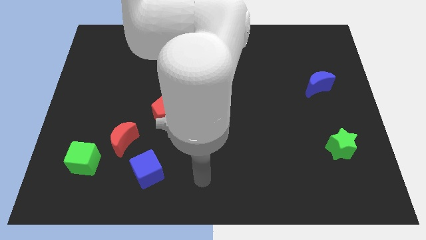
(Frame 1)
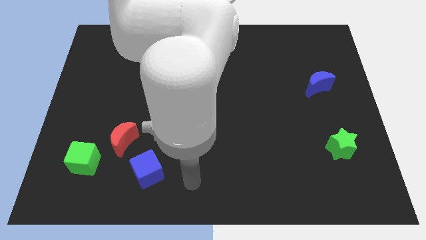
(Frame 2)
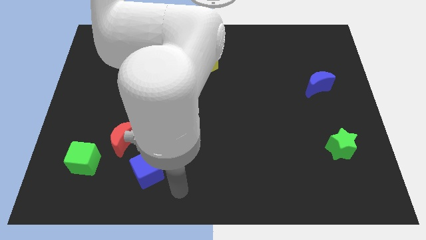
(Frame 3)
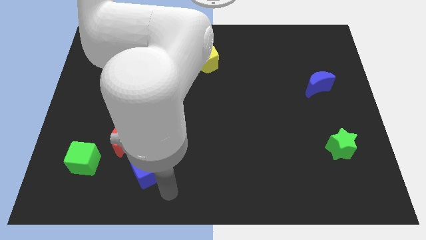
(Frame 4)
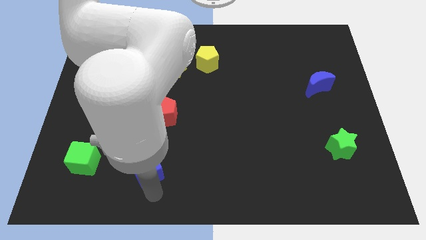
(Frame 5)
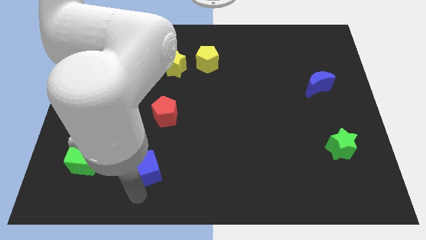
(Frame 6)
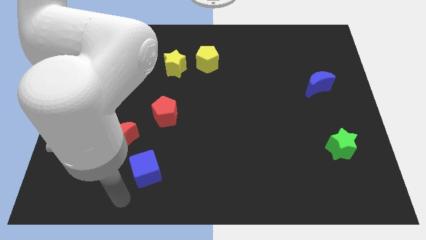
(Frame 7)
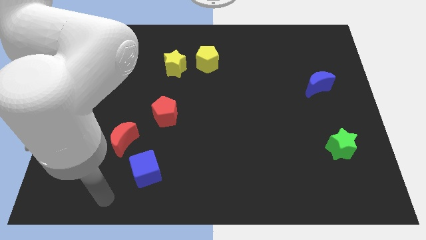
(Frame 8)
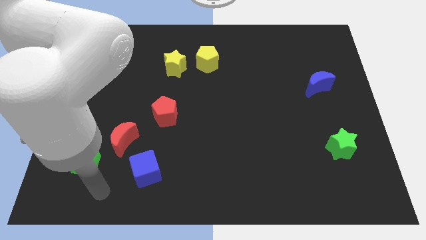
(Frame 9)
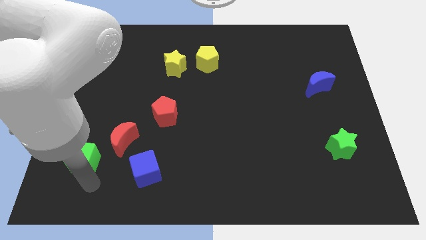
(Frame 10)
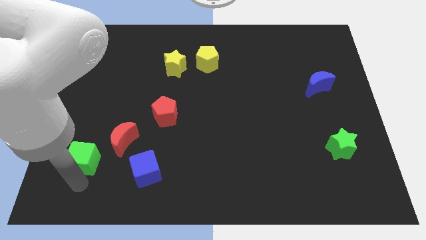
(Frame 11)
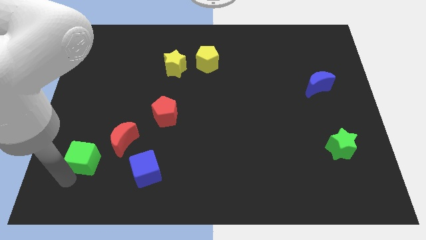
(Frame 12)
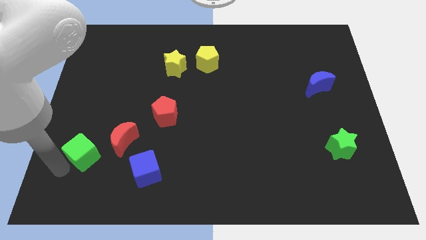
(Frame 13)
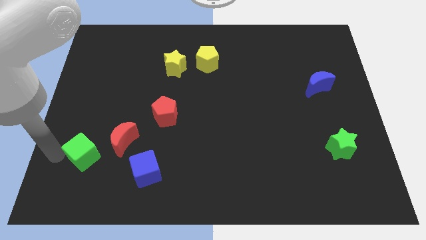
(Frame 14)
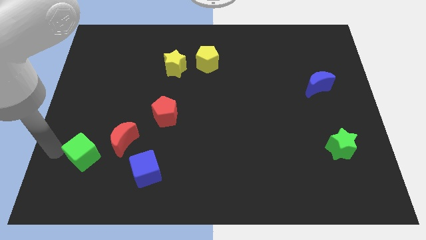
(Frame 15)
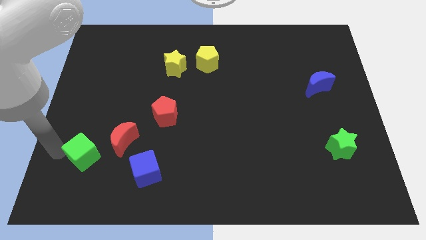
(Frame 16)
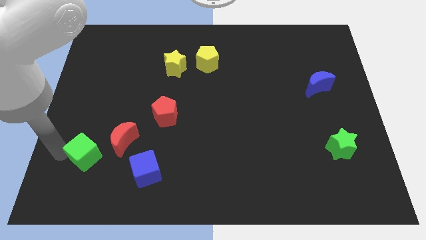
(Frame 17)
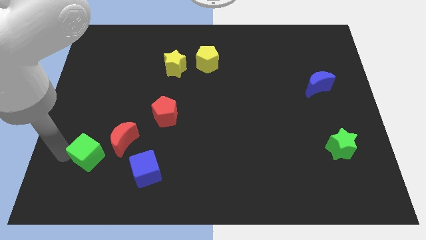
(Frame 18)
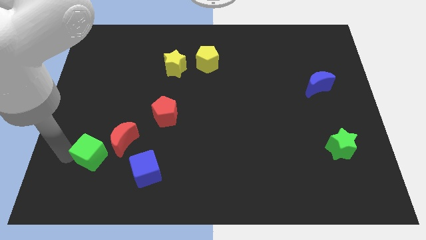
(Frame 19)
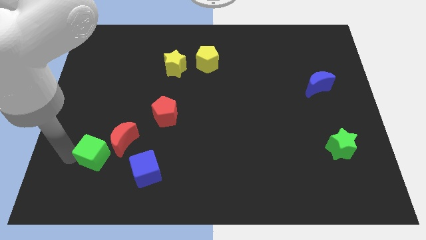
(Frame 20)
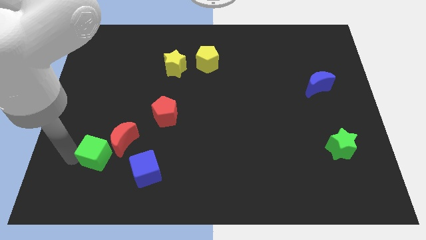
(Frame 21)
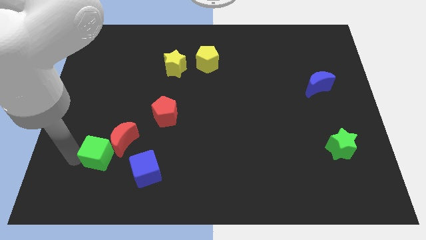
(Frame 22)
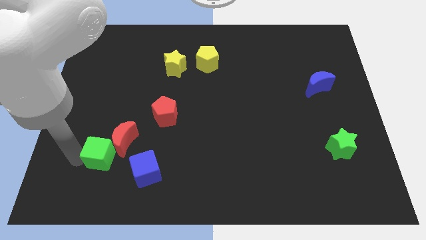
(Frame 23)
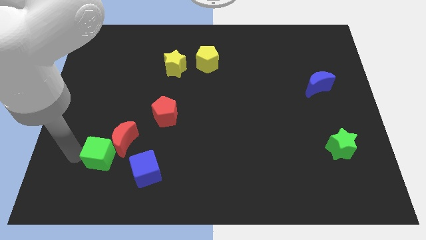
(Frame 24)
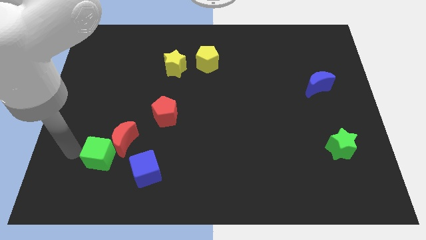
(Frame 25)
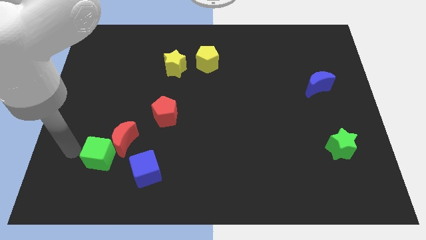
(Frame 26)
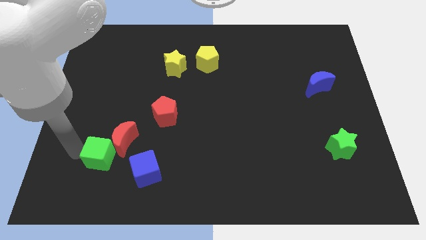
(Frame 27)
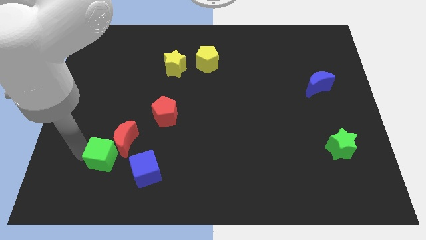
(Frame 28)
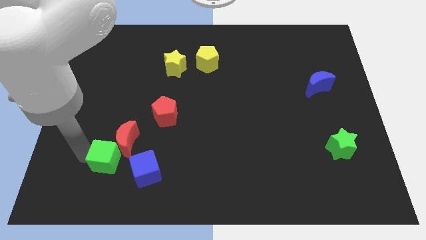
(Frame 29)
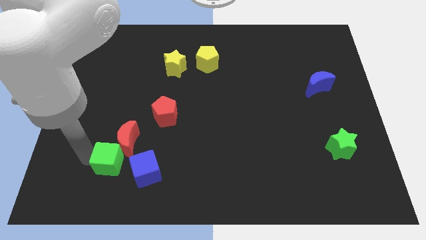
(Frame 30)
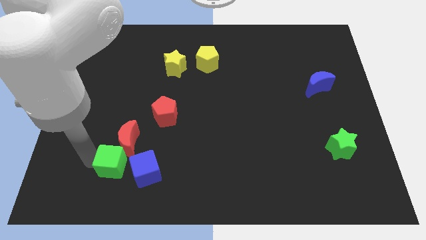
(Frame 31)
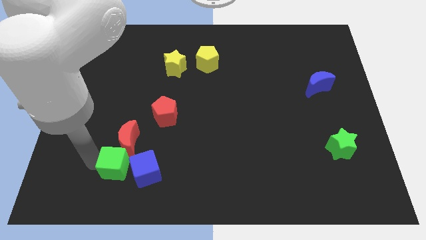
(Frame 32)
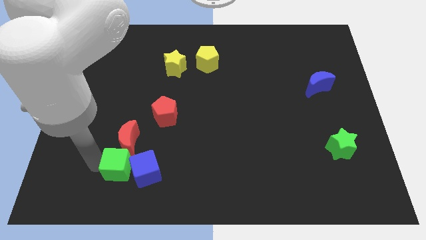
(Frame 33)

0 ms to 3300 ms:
slightly move the green cube to the right

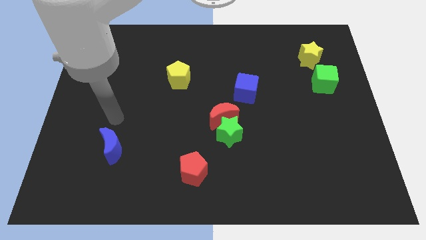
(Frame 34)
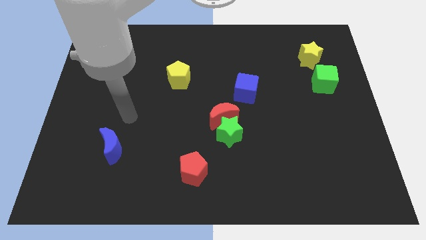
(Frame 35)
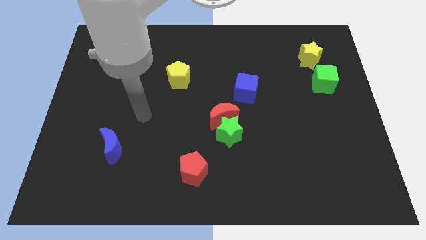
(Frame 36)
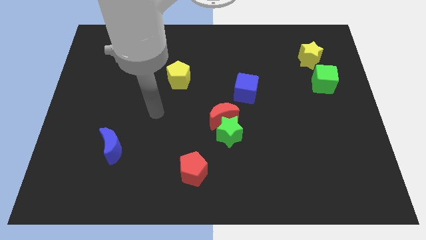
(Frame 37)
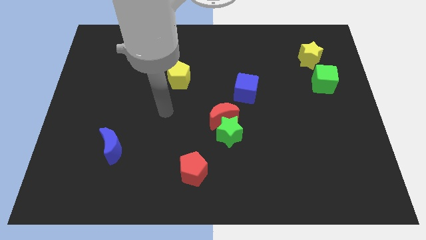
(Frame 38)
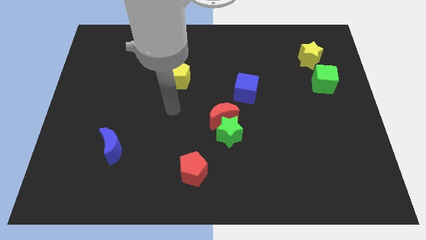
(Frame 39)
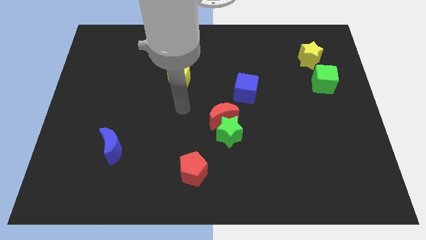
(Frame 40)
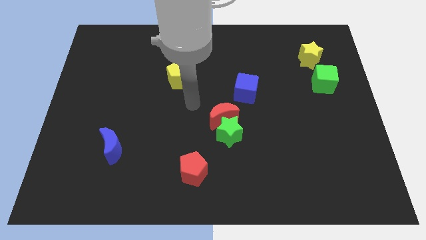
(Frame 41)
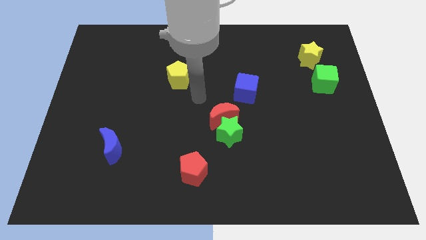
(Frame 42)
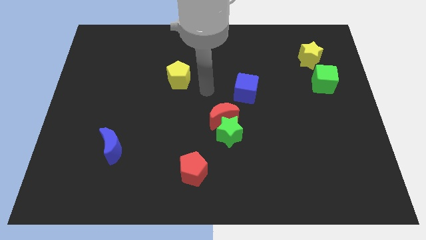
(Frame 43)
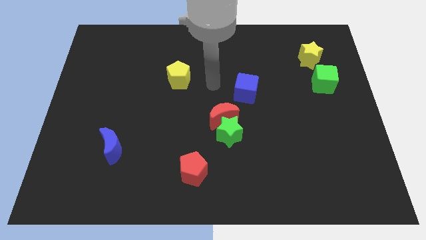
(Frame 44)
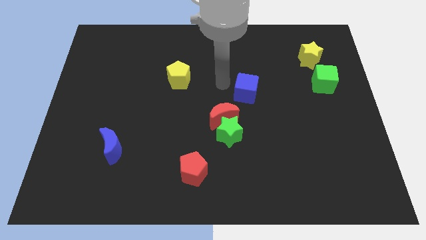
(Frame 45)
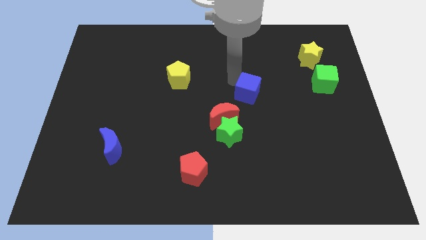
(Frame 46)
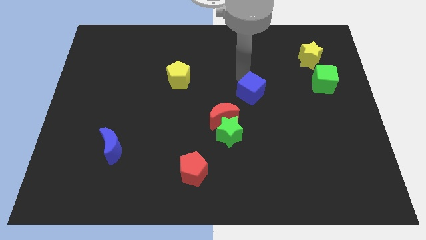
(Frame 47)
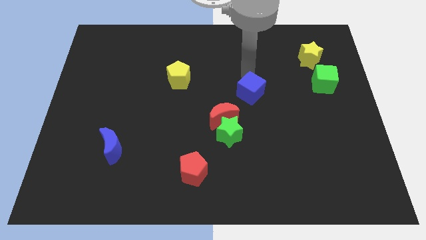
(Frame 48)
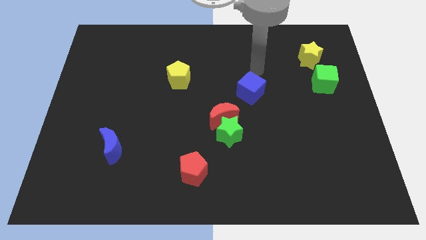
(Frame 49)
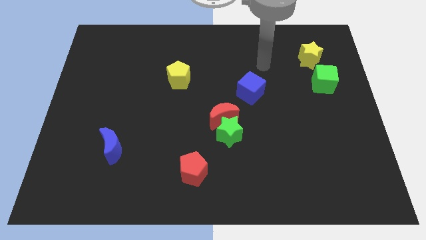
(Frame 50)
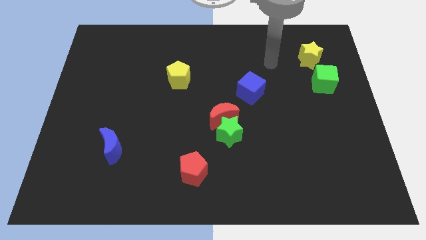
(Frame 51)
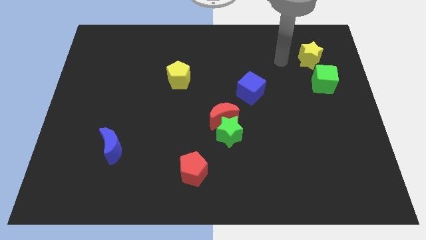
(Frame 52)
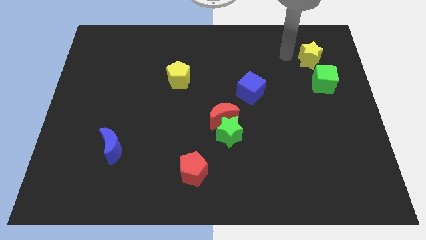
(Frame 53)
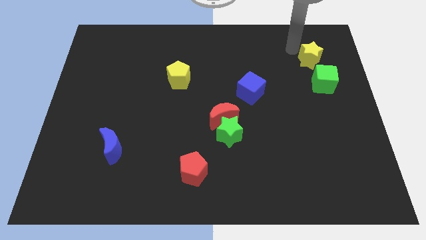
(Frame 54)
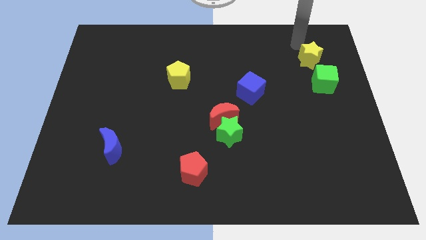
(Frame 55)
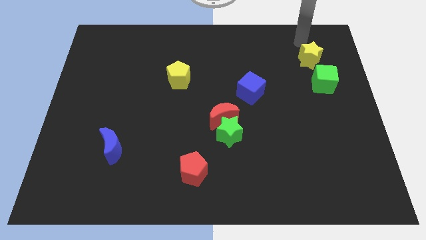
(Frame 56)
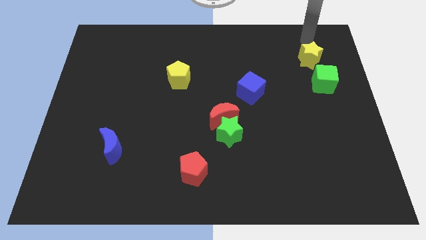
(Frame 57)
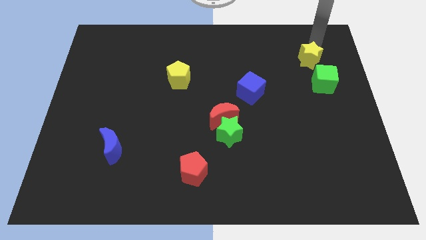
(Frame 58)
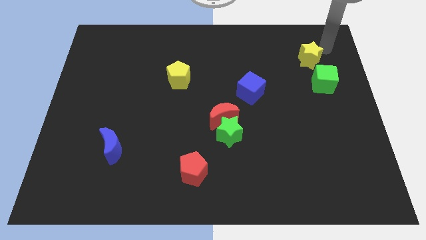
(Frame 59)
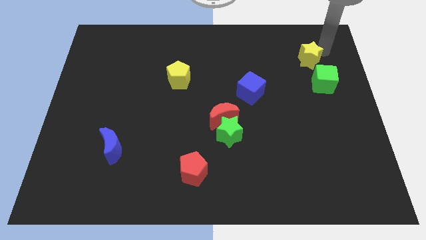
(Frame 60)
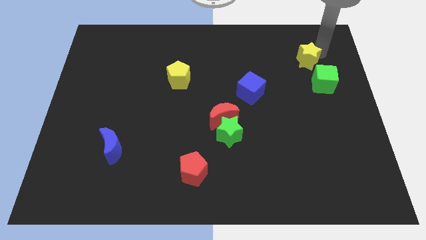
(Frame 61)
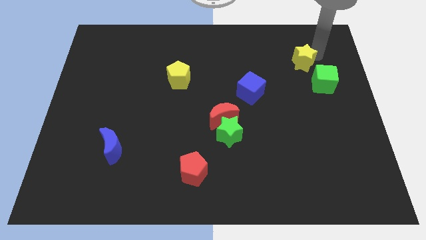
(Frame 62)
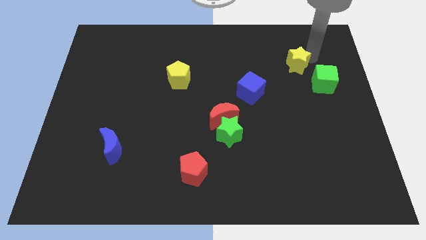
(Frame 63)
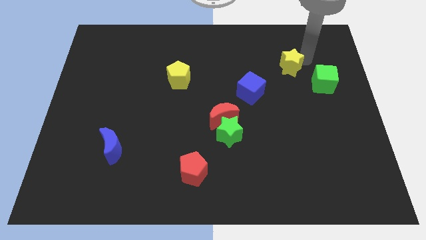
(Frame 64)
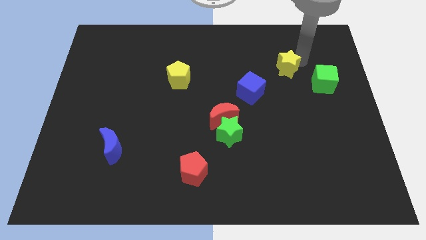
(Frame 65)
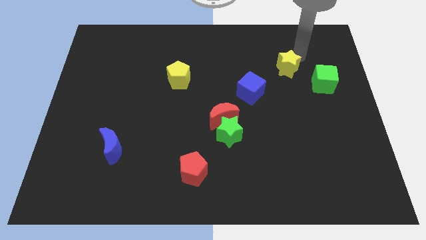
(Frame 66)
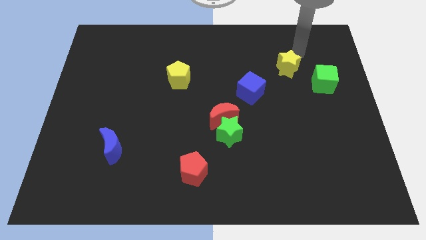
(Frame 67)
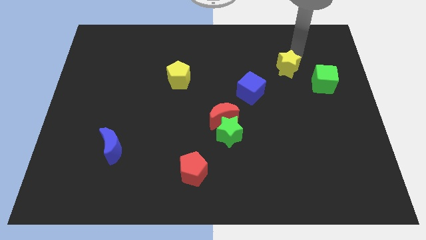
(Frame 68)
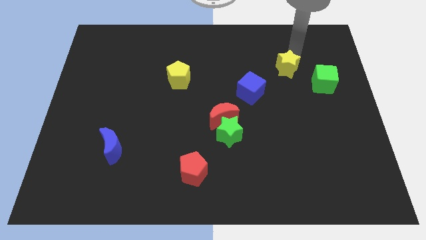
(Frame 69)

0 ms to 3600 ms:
move the yellow star diagonally downwards and left a little bit

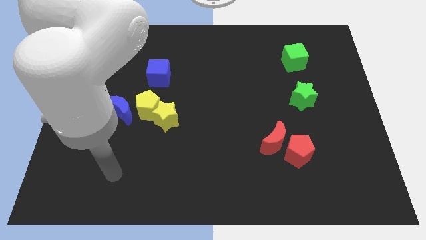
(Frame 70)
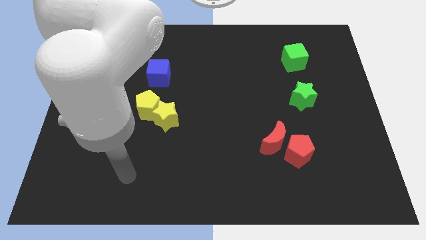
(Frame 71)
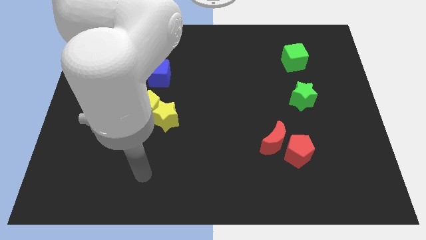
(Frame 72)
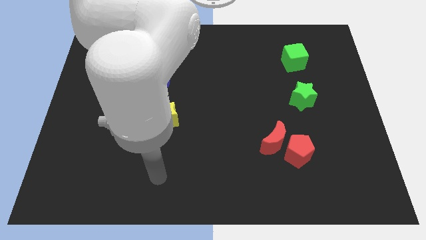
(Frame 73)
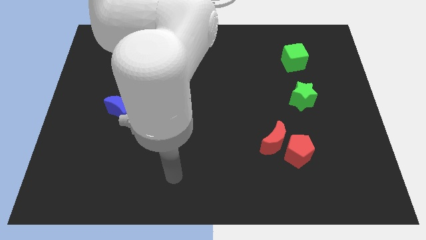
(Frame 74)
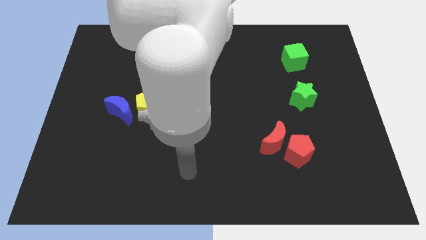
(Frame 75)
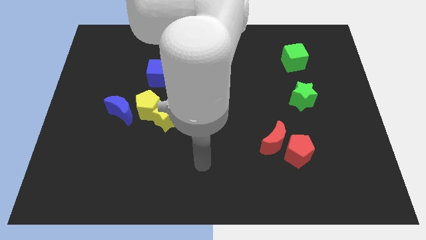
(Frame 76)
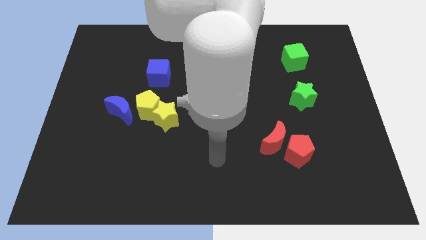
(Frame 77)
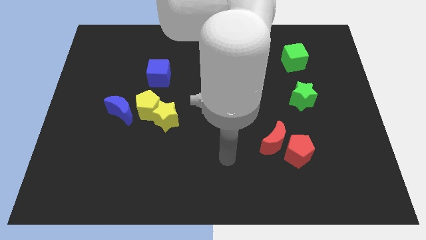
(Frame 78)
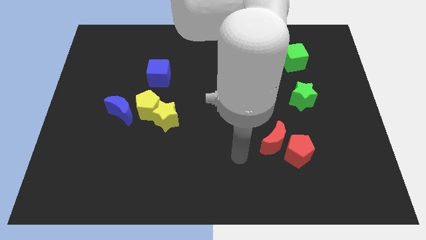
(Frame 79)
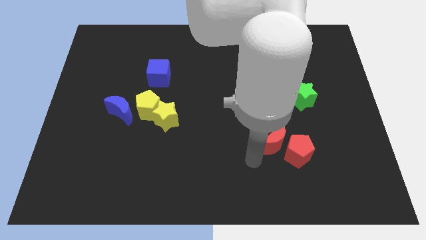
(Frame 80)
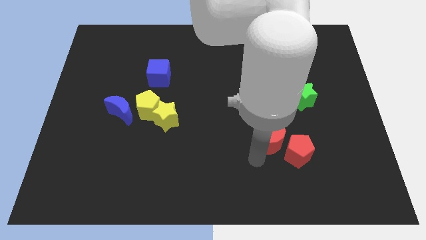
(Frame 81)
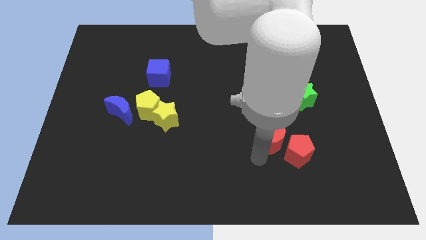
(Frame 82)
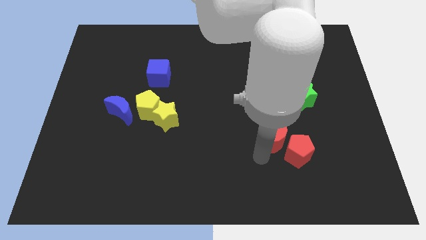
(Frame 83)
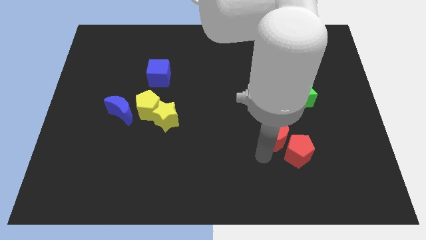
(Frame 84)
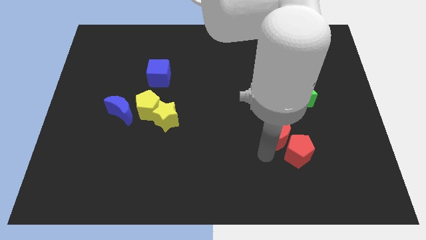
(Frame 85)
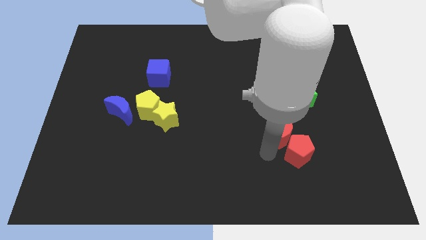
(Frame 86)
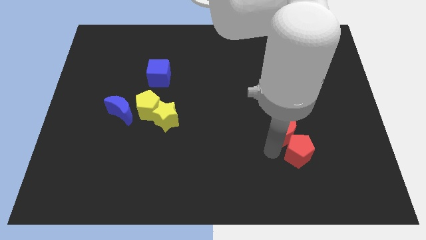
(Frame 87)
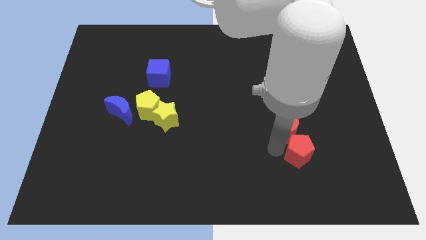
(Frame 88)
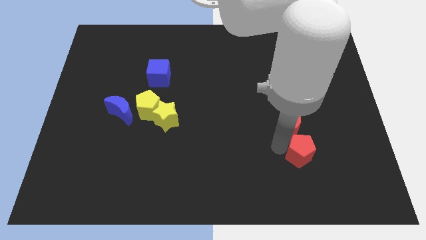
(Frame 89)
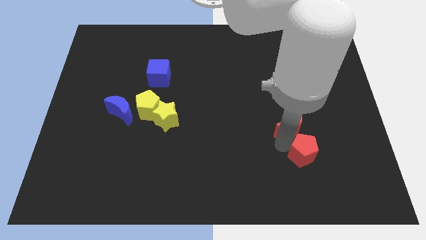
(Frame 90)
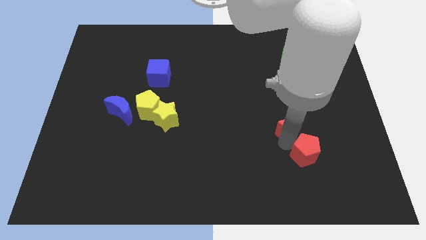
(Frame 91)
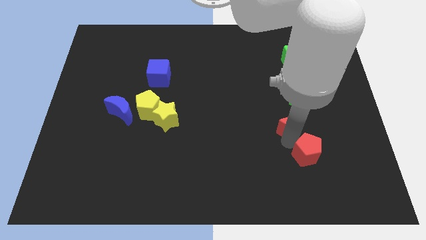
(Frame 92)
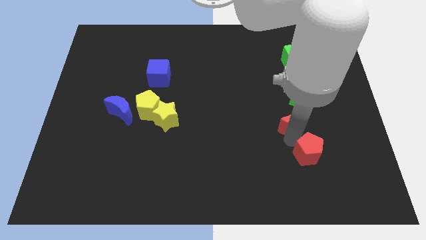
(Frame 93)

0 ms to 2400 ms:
move the red moon upwards and right diagonally a bit
